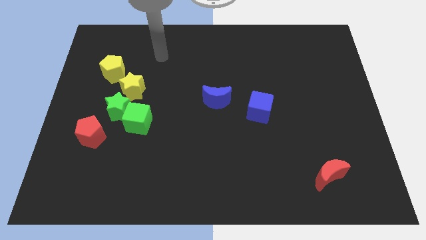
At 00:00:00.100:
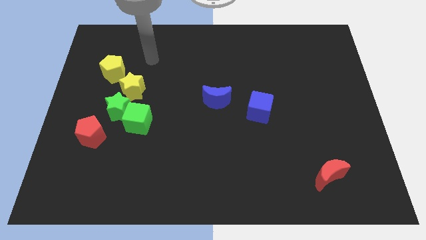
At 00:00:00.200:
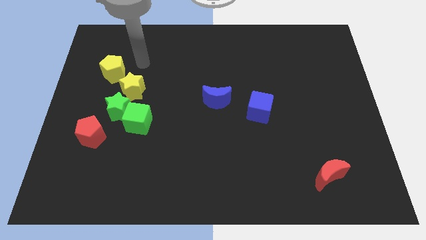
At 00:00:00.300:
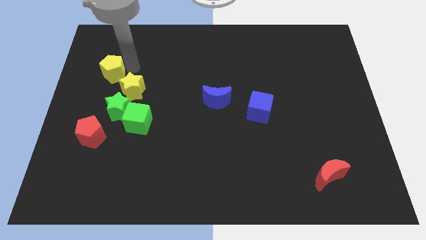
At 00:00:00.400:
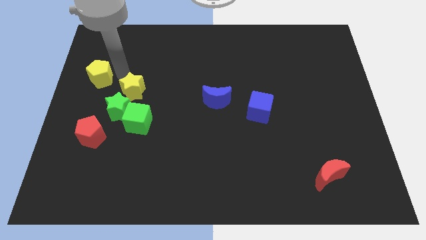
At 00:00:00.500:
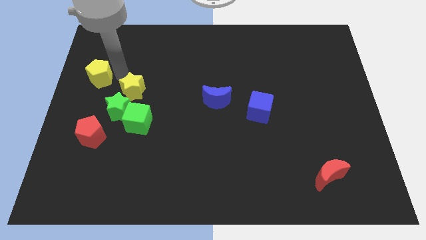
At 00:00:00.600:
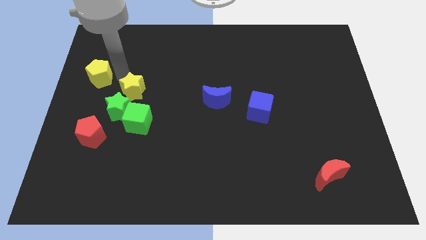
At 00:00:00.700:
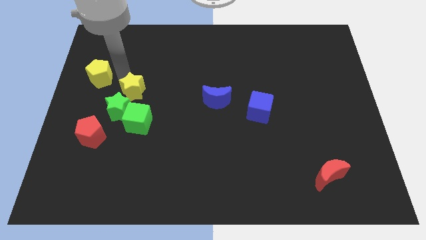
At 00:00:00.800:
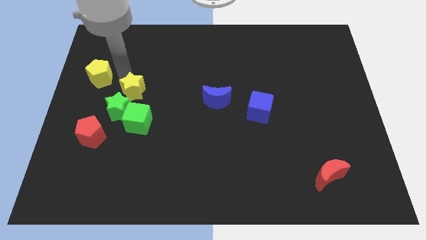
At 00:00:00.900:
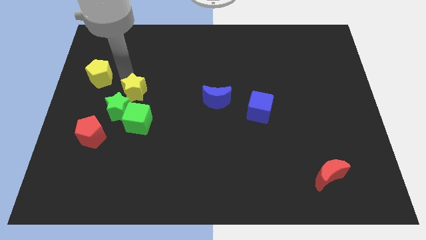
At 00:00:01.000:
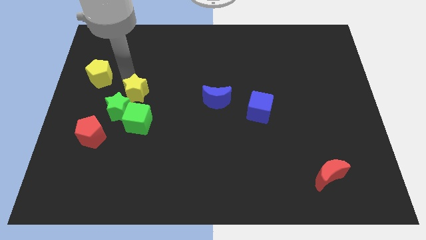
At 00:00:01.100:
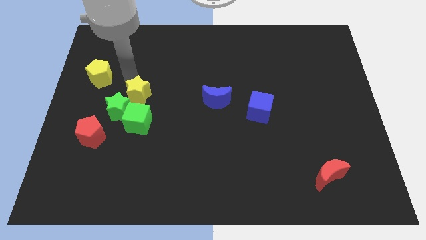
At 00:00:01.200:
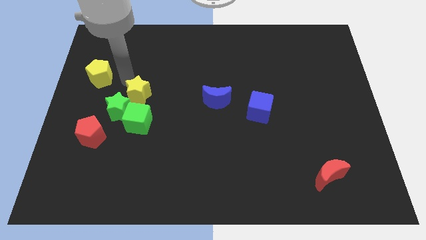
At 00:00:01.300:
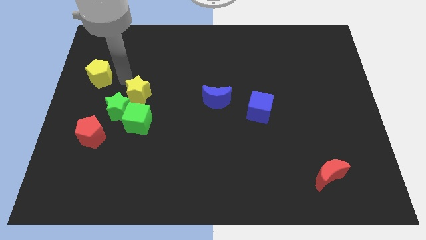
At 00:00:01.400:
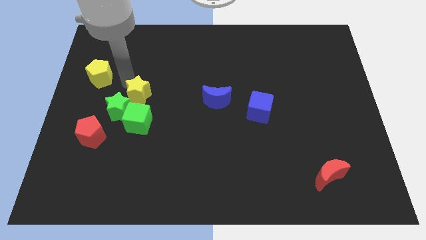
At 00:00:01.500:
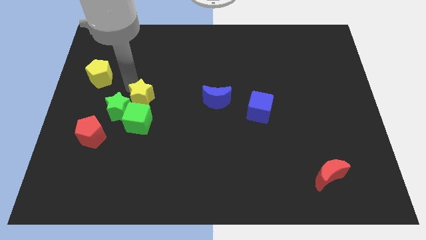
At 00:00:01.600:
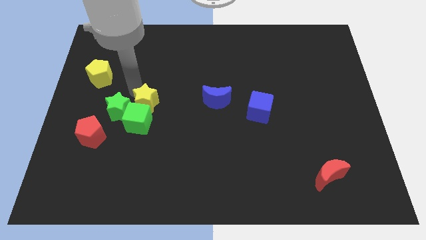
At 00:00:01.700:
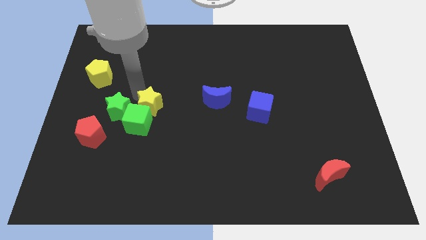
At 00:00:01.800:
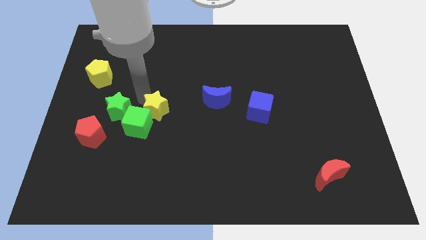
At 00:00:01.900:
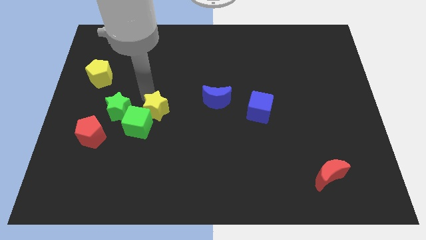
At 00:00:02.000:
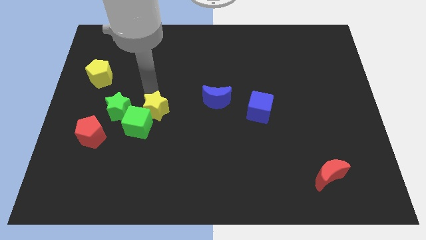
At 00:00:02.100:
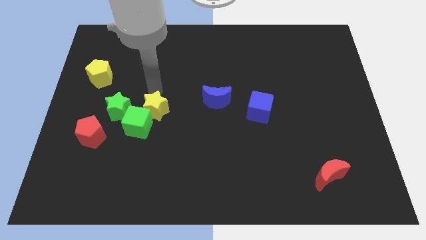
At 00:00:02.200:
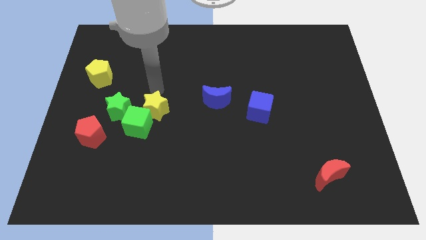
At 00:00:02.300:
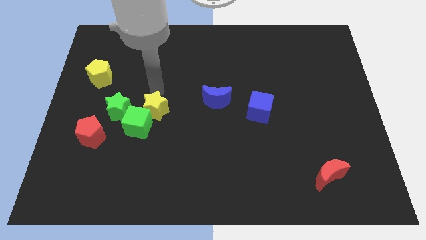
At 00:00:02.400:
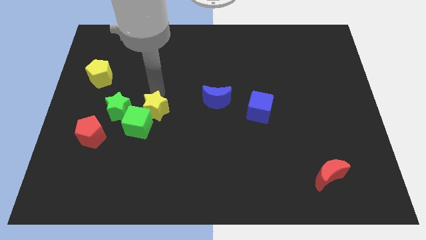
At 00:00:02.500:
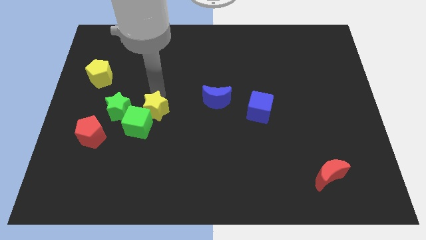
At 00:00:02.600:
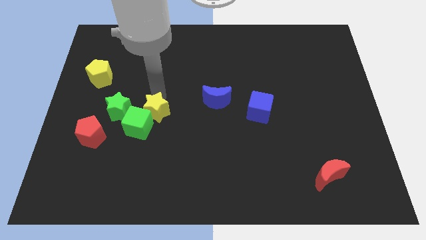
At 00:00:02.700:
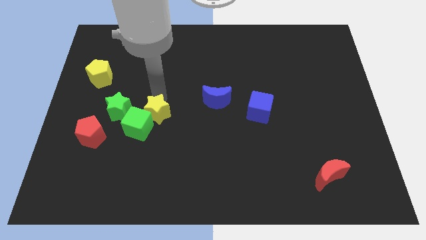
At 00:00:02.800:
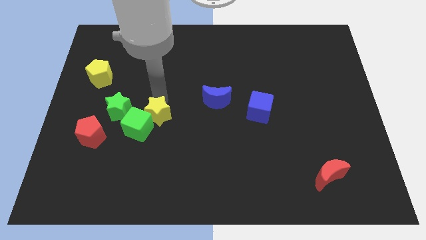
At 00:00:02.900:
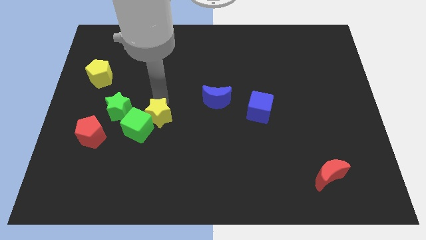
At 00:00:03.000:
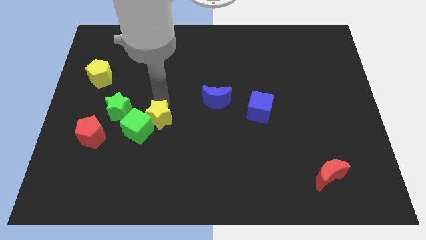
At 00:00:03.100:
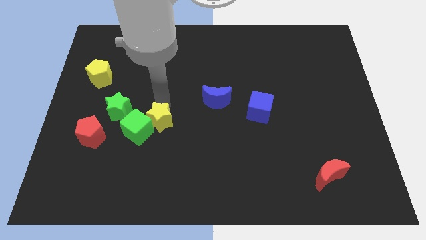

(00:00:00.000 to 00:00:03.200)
slightly move the yellow star downwards

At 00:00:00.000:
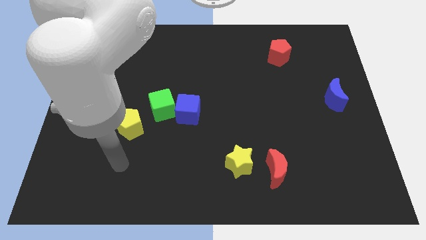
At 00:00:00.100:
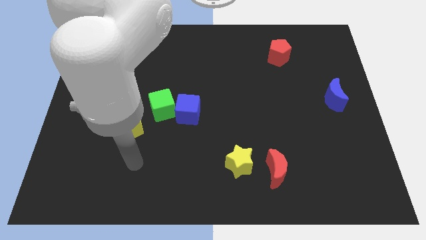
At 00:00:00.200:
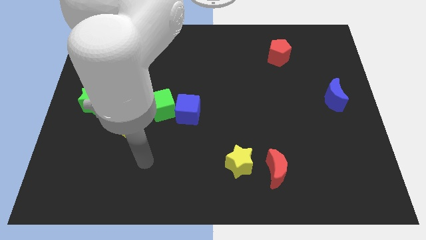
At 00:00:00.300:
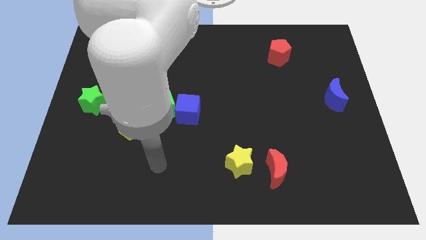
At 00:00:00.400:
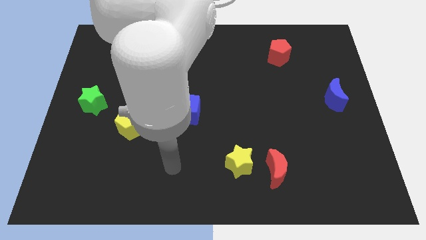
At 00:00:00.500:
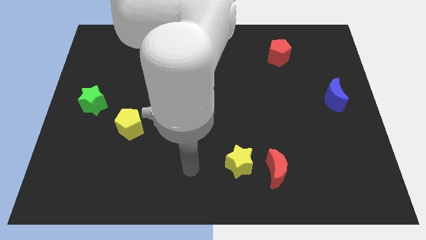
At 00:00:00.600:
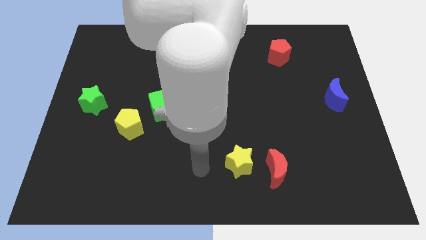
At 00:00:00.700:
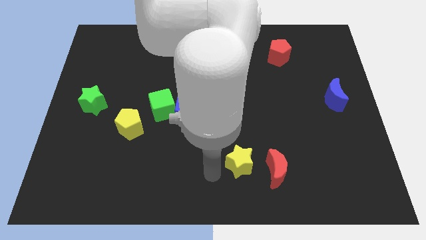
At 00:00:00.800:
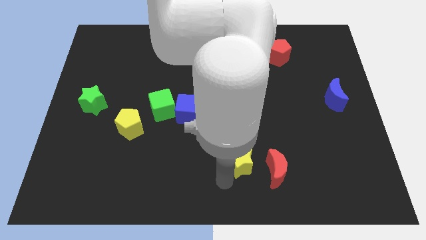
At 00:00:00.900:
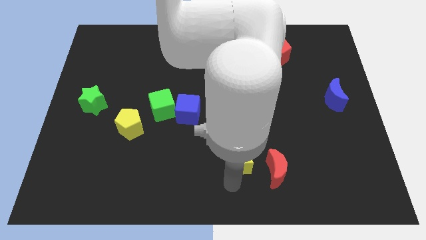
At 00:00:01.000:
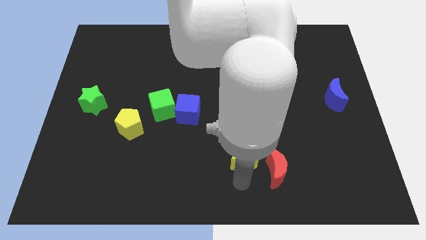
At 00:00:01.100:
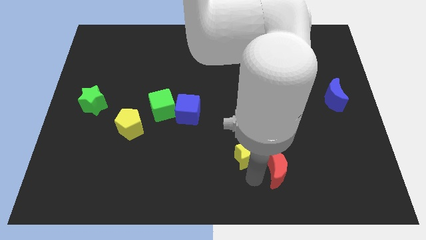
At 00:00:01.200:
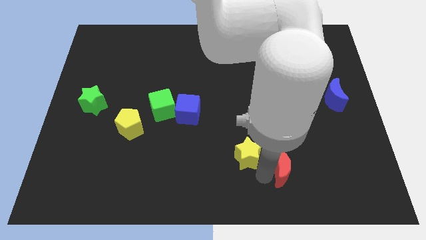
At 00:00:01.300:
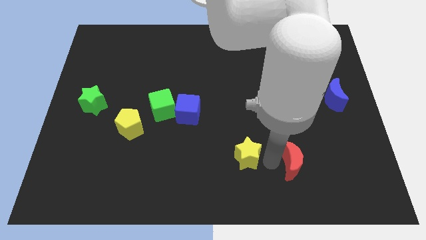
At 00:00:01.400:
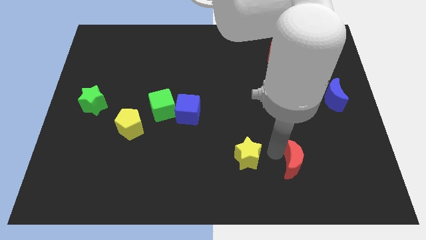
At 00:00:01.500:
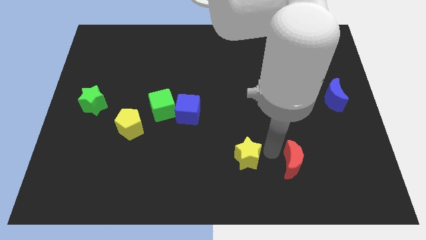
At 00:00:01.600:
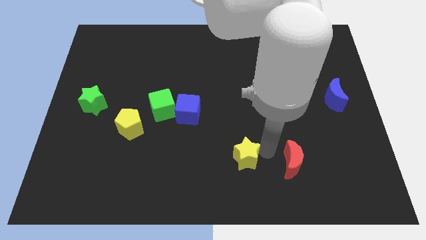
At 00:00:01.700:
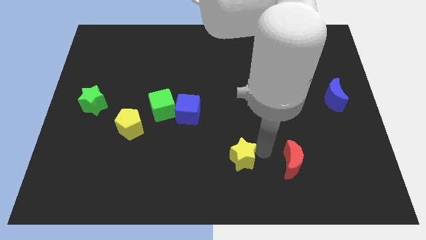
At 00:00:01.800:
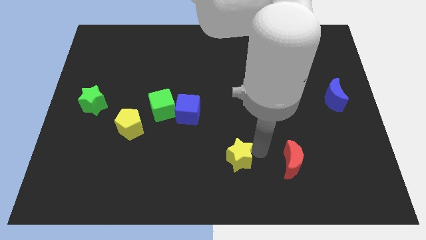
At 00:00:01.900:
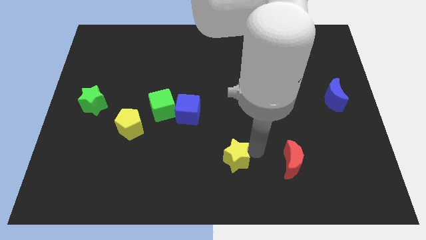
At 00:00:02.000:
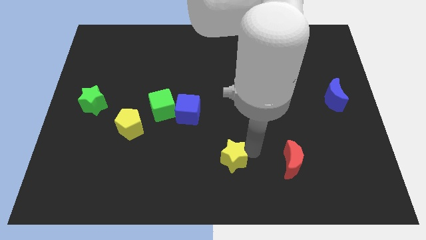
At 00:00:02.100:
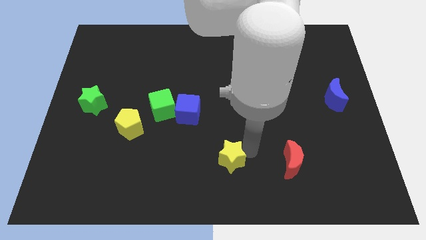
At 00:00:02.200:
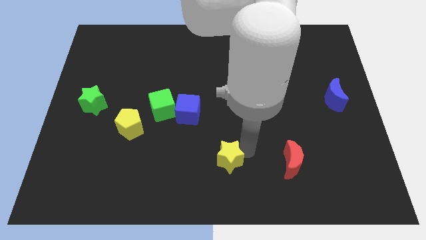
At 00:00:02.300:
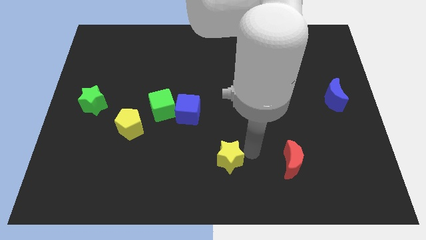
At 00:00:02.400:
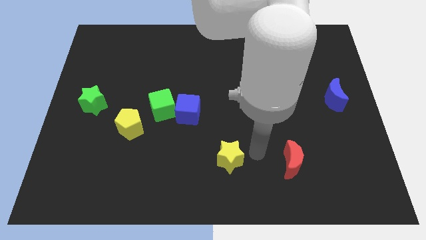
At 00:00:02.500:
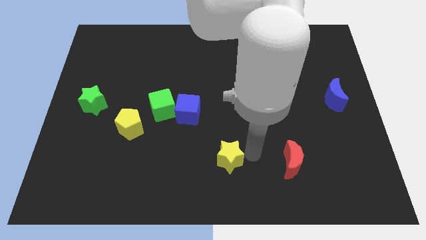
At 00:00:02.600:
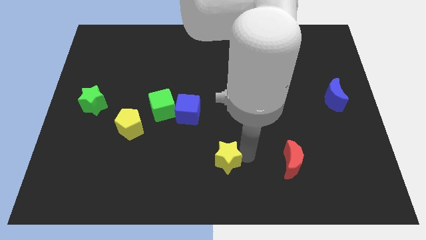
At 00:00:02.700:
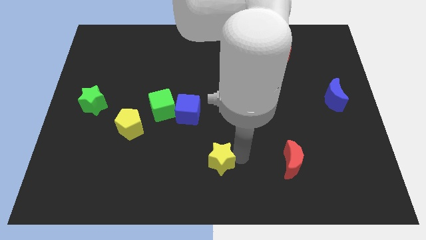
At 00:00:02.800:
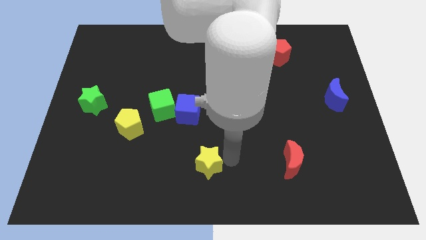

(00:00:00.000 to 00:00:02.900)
move the yellow star left slightly

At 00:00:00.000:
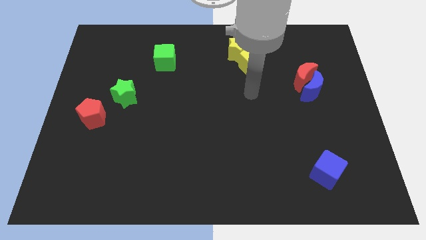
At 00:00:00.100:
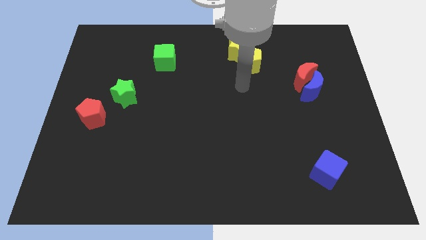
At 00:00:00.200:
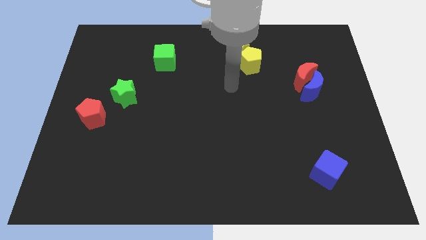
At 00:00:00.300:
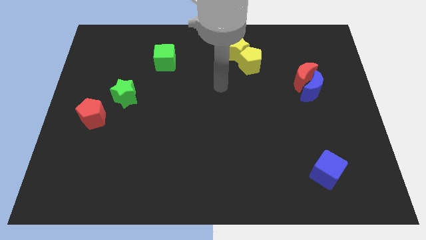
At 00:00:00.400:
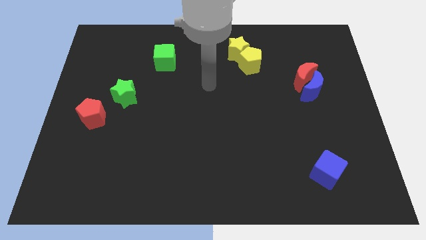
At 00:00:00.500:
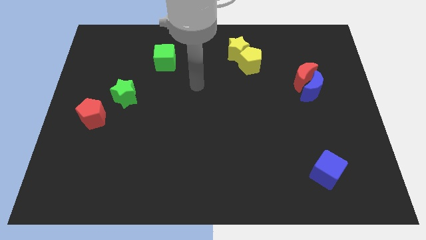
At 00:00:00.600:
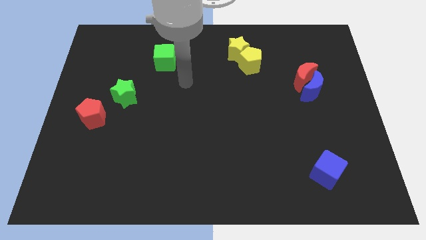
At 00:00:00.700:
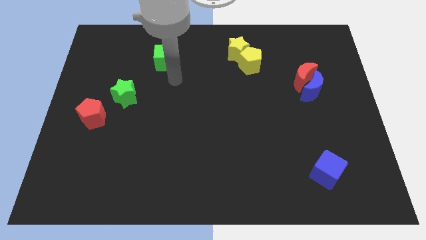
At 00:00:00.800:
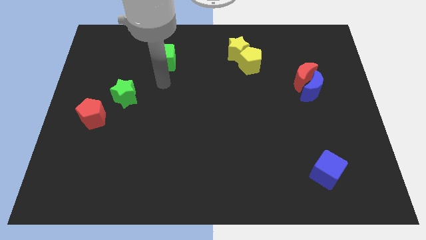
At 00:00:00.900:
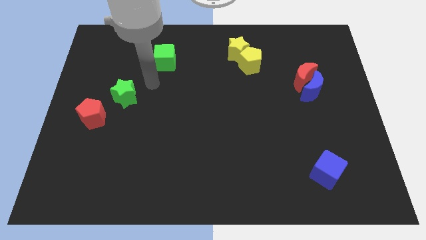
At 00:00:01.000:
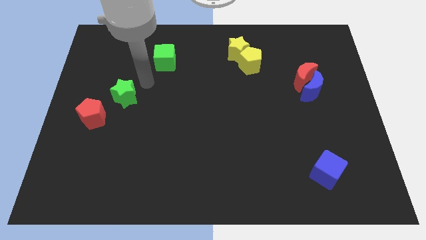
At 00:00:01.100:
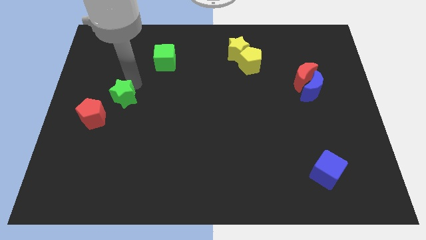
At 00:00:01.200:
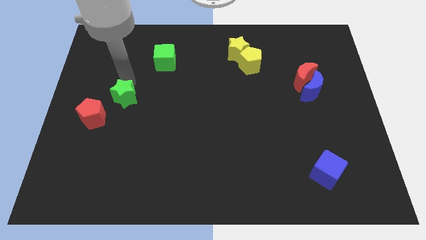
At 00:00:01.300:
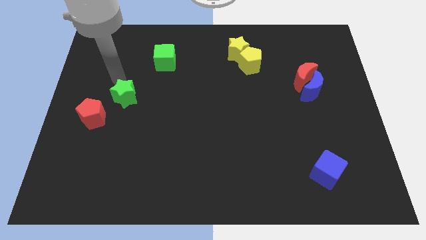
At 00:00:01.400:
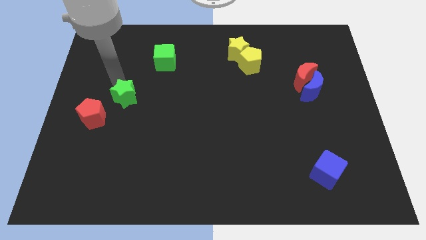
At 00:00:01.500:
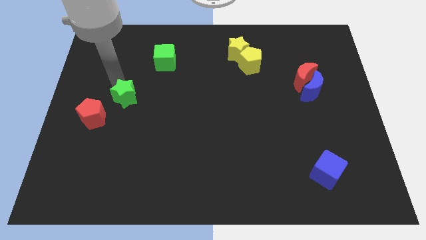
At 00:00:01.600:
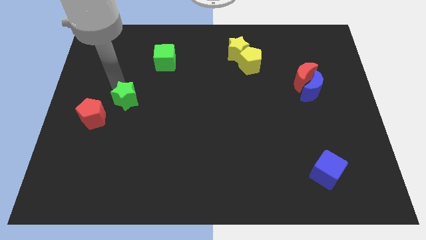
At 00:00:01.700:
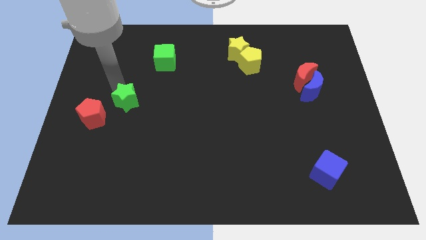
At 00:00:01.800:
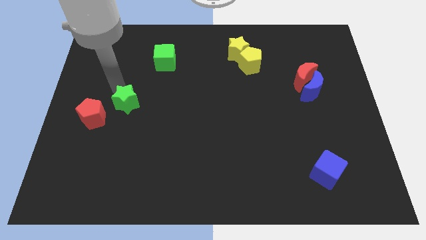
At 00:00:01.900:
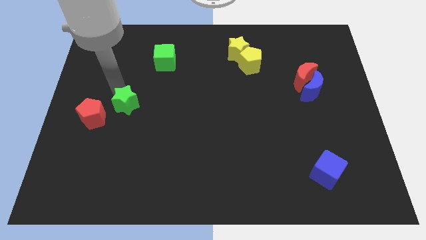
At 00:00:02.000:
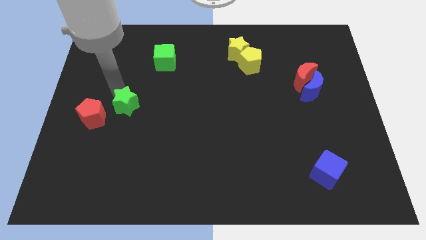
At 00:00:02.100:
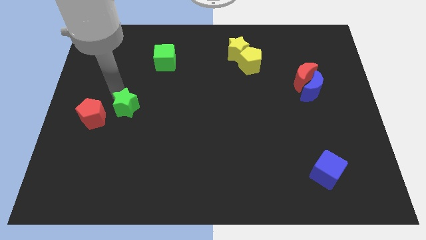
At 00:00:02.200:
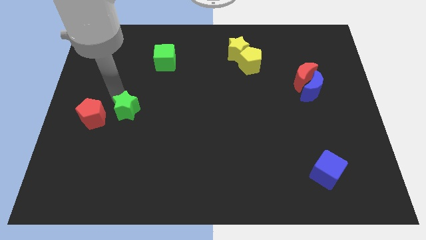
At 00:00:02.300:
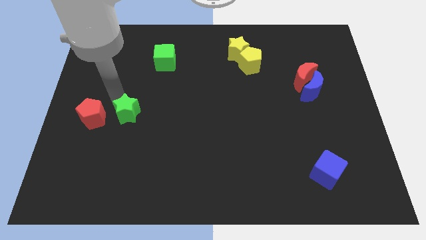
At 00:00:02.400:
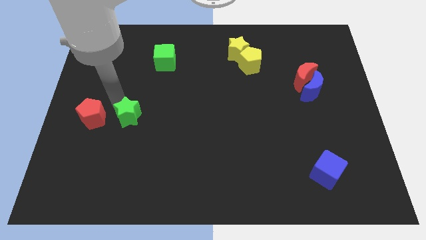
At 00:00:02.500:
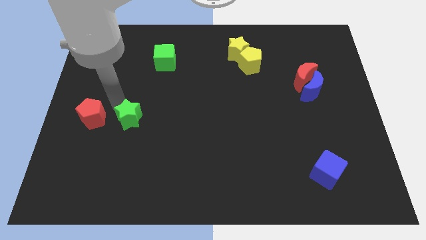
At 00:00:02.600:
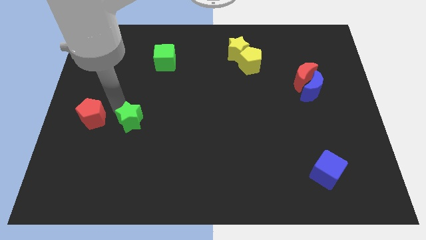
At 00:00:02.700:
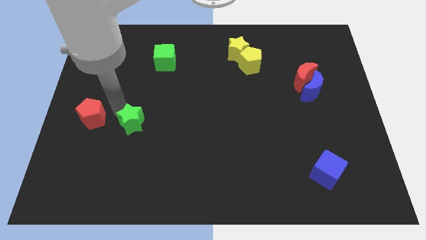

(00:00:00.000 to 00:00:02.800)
move the green star a little bit down and right
